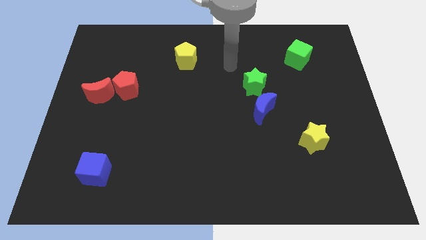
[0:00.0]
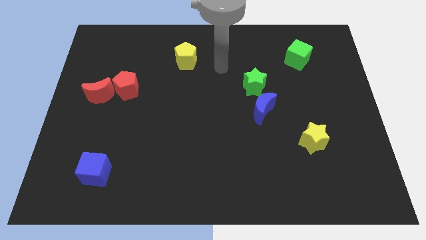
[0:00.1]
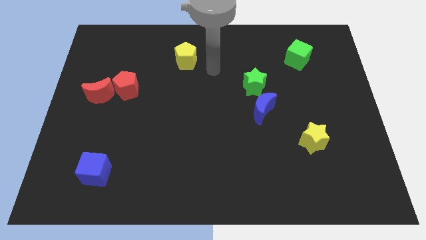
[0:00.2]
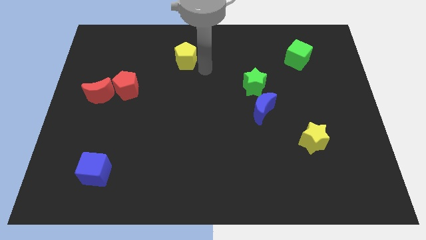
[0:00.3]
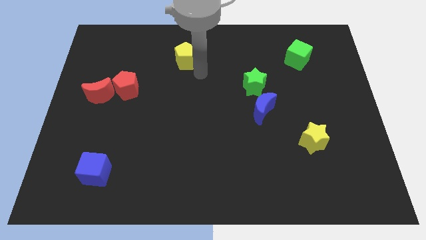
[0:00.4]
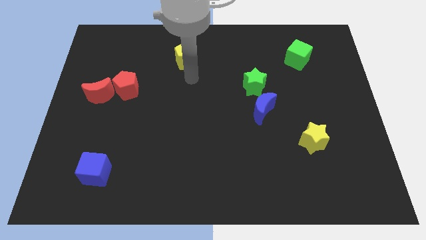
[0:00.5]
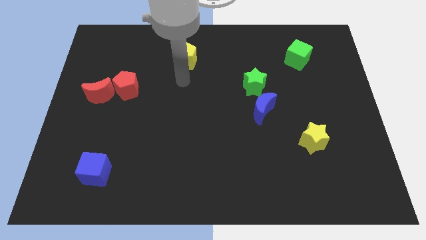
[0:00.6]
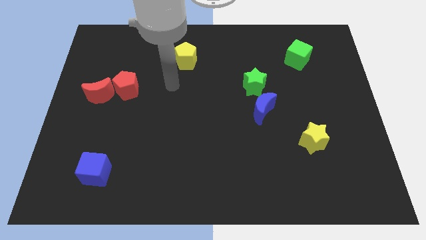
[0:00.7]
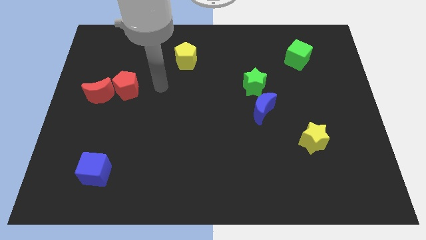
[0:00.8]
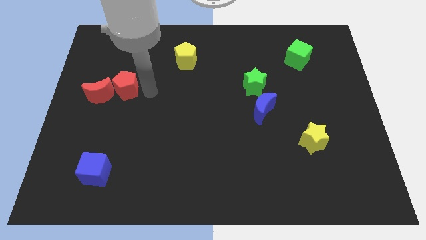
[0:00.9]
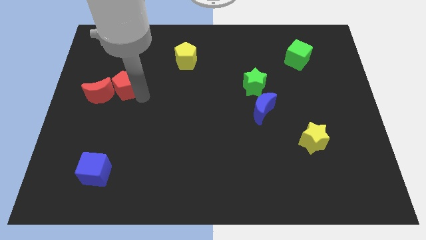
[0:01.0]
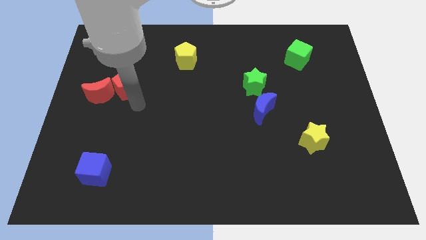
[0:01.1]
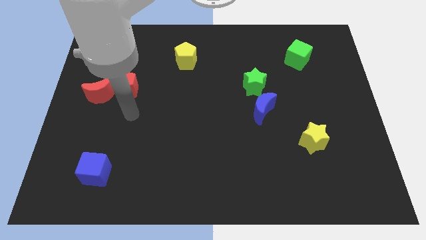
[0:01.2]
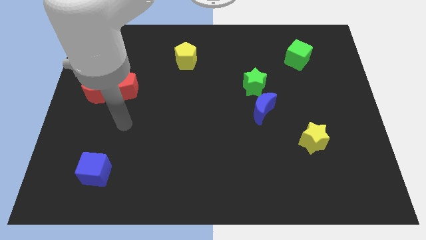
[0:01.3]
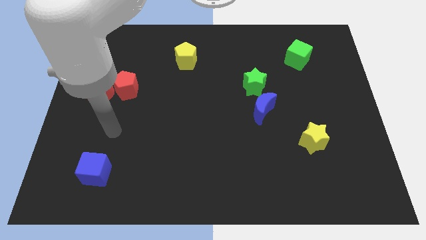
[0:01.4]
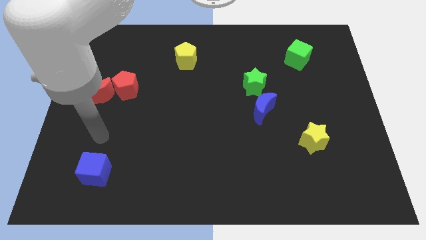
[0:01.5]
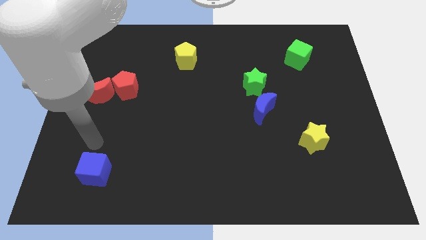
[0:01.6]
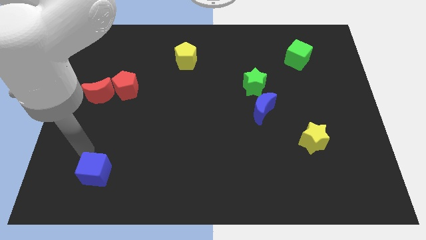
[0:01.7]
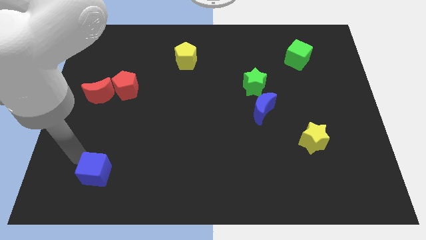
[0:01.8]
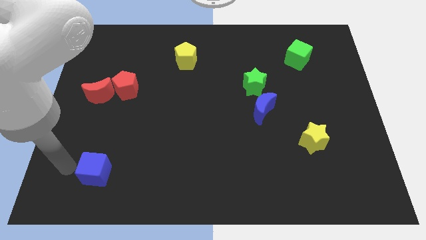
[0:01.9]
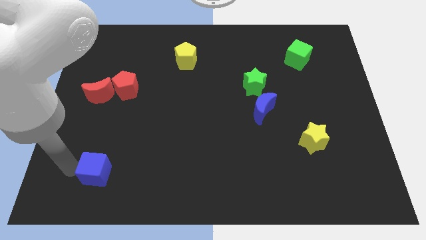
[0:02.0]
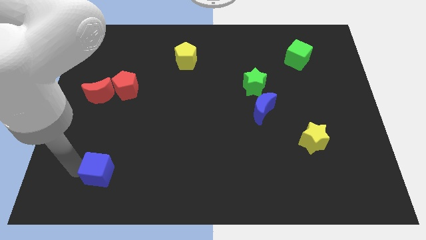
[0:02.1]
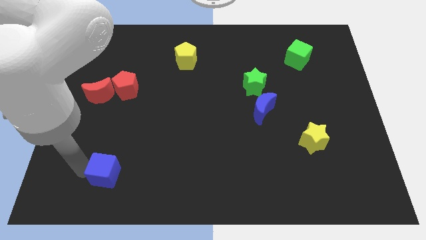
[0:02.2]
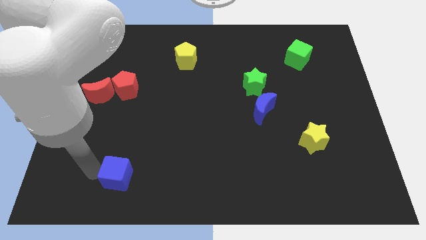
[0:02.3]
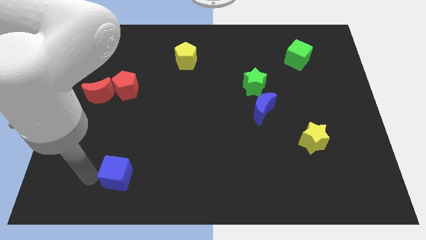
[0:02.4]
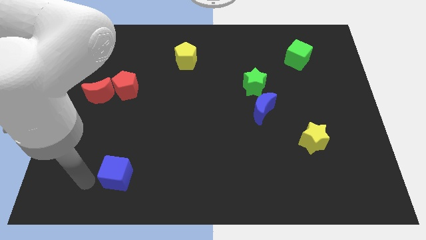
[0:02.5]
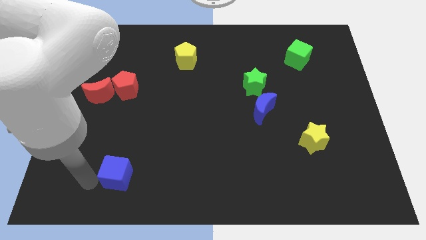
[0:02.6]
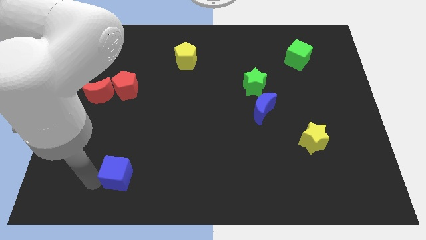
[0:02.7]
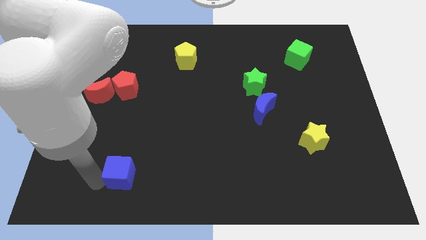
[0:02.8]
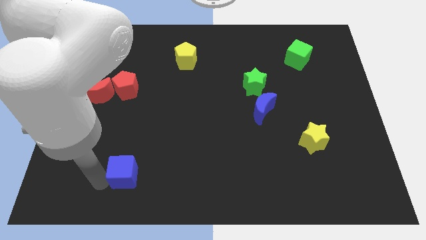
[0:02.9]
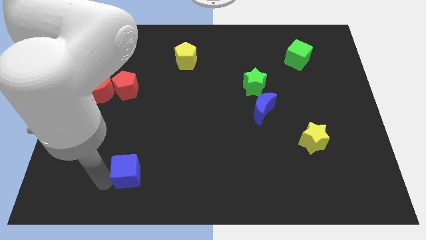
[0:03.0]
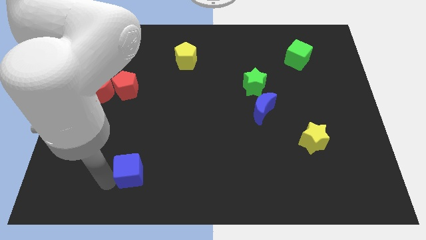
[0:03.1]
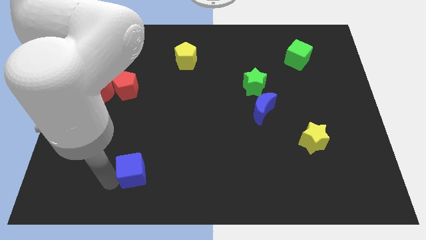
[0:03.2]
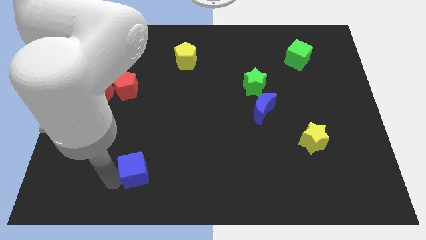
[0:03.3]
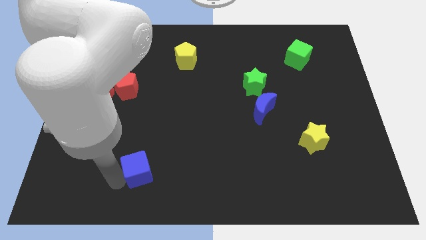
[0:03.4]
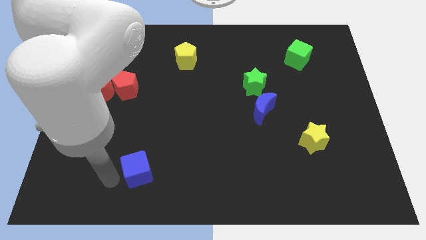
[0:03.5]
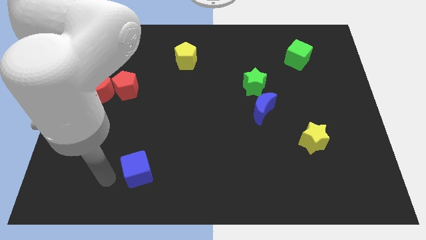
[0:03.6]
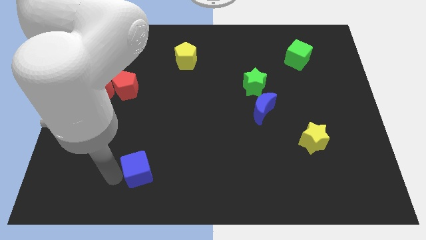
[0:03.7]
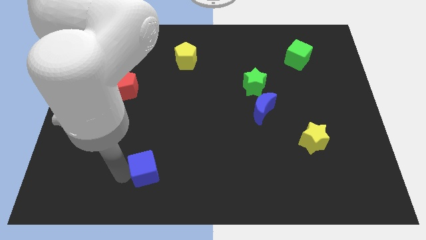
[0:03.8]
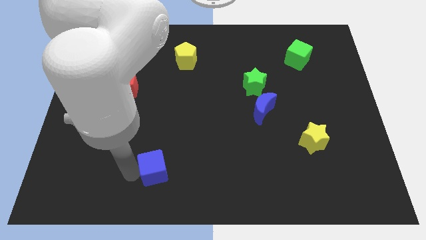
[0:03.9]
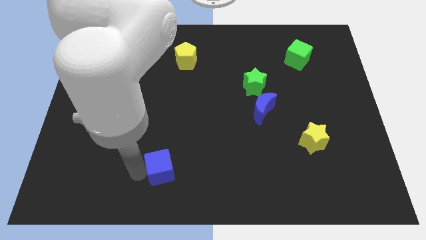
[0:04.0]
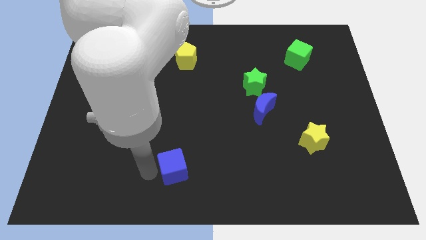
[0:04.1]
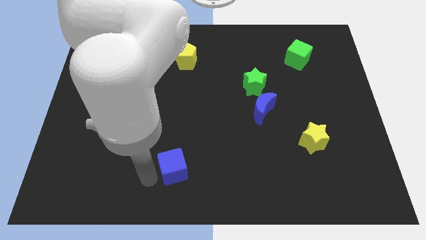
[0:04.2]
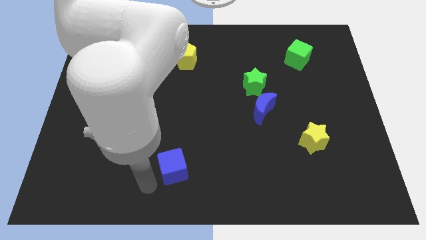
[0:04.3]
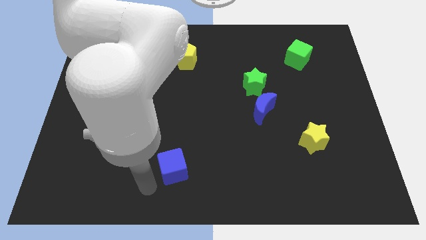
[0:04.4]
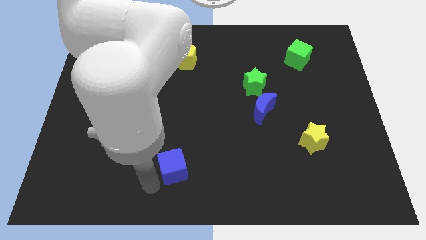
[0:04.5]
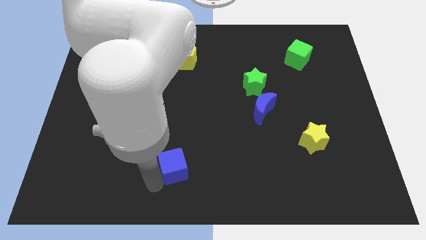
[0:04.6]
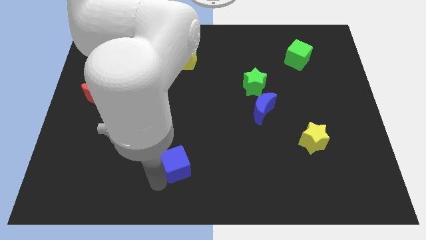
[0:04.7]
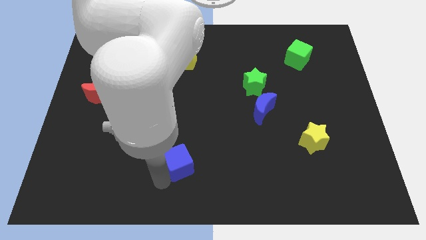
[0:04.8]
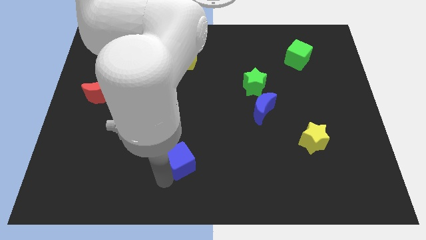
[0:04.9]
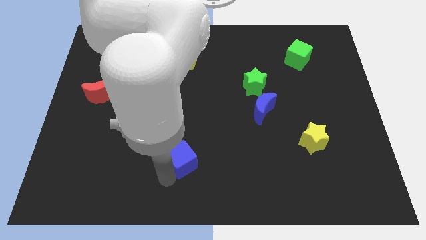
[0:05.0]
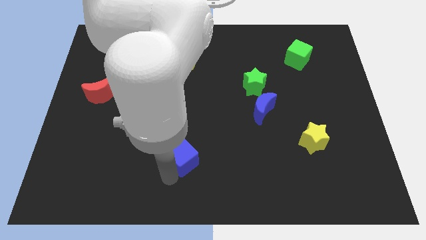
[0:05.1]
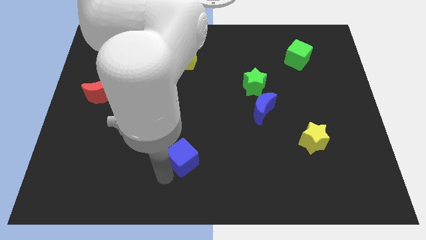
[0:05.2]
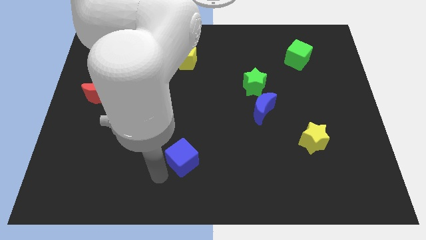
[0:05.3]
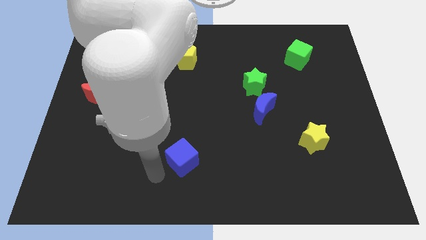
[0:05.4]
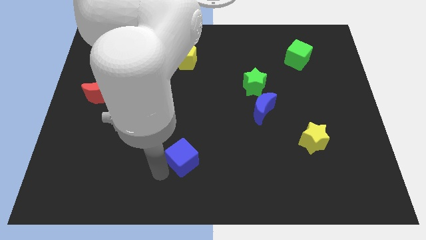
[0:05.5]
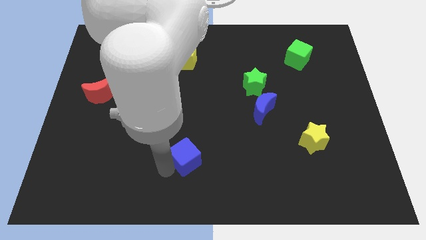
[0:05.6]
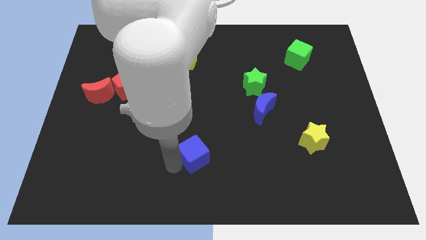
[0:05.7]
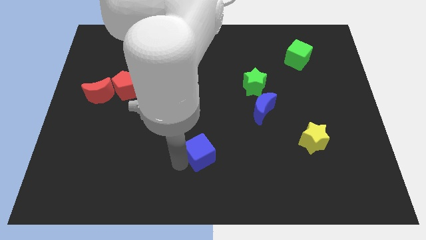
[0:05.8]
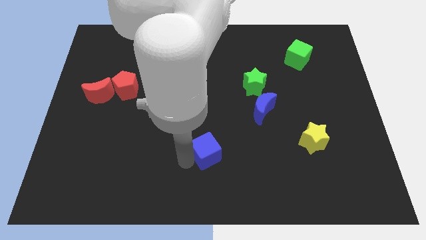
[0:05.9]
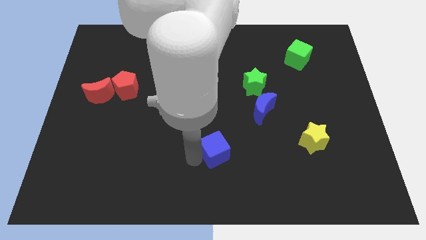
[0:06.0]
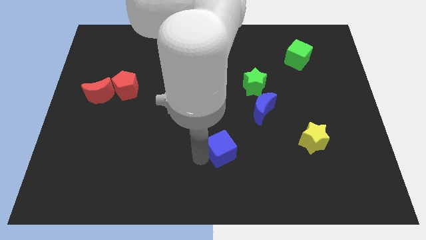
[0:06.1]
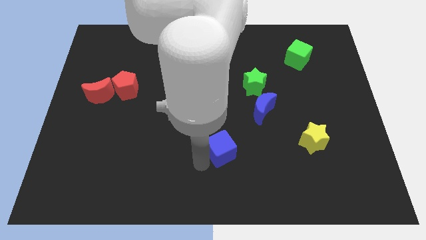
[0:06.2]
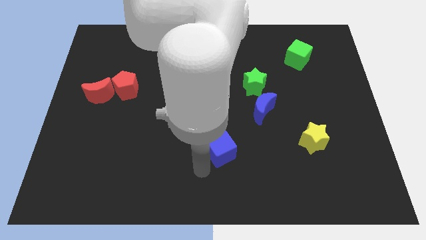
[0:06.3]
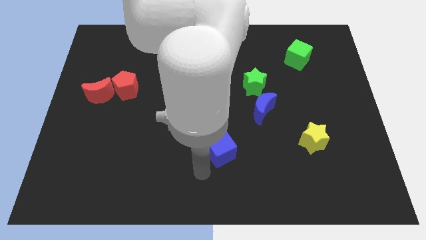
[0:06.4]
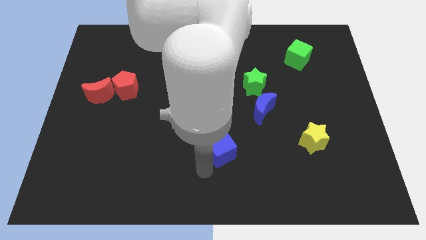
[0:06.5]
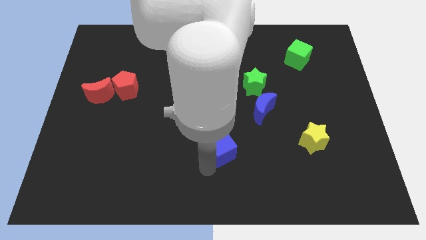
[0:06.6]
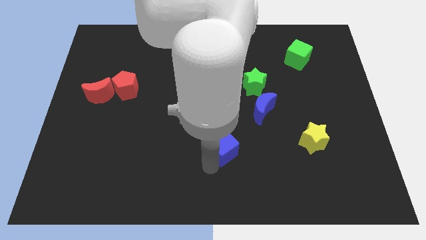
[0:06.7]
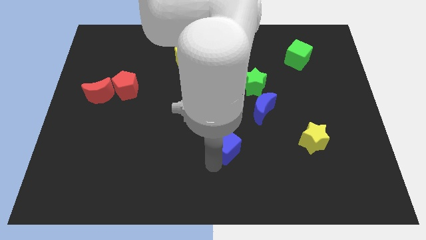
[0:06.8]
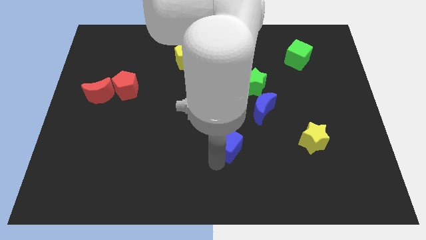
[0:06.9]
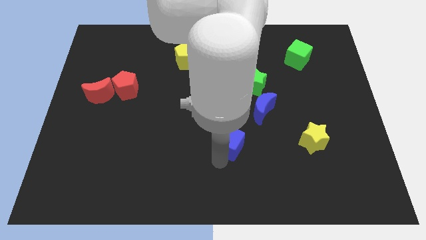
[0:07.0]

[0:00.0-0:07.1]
slide the blue cube to the bottom left side of the blue moon

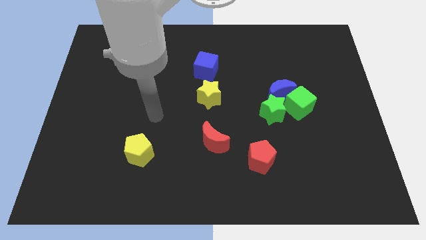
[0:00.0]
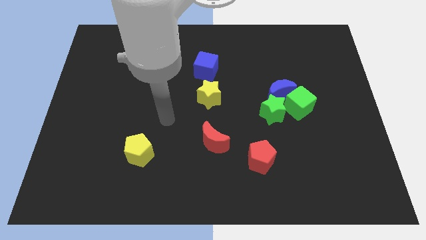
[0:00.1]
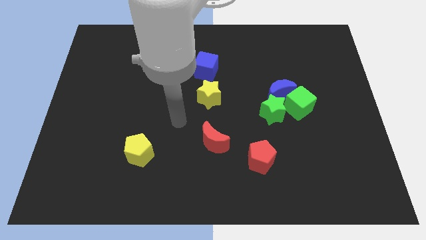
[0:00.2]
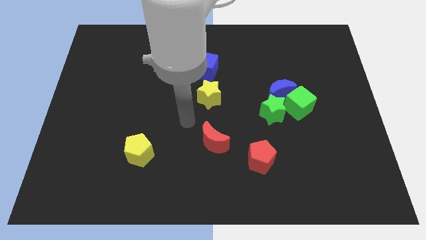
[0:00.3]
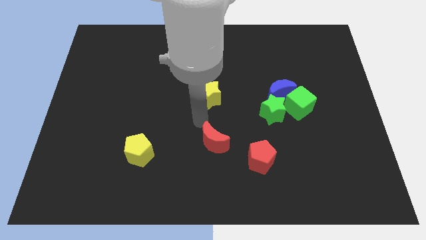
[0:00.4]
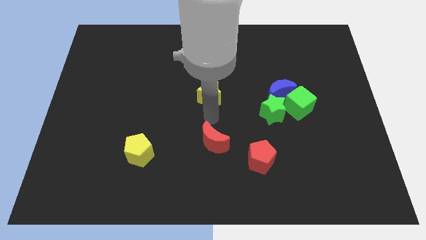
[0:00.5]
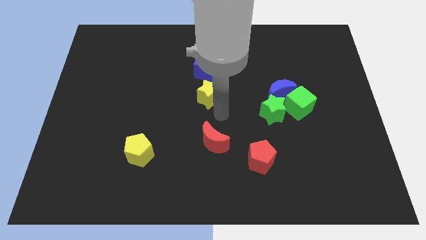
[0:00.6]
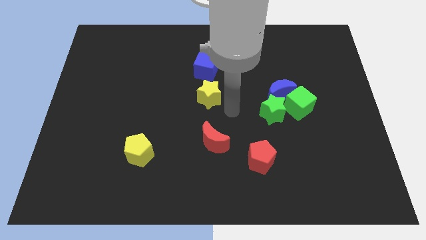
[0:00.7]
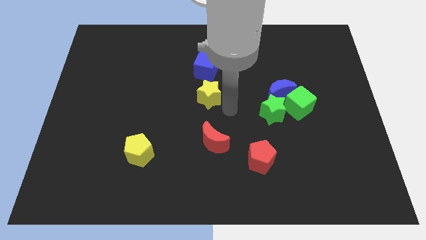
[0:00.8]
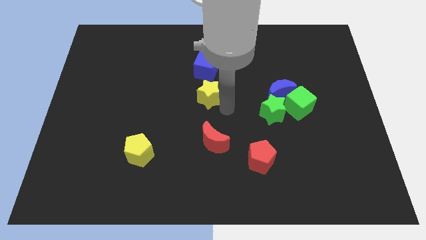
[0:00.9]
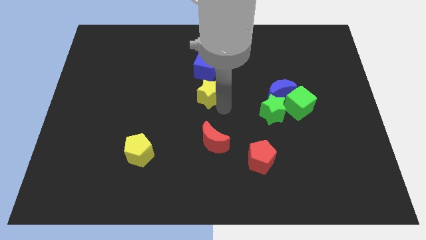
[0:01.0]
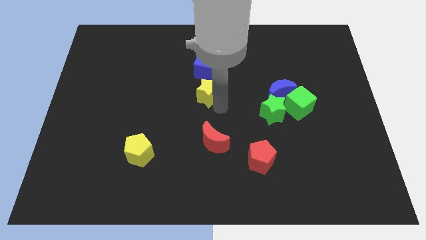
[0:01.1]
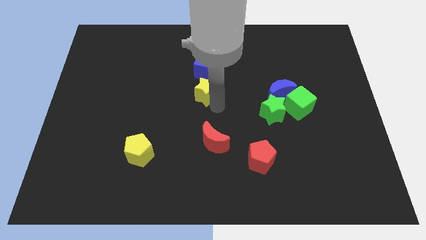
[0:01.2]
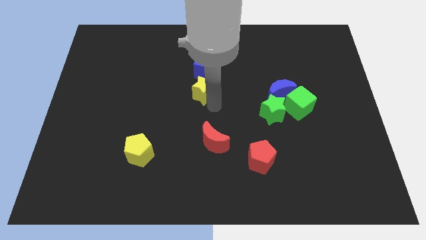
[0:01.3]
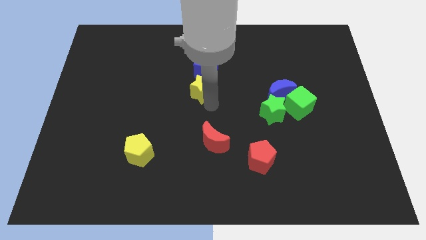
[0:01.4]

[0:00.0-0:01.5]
slide the yellow star to the bottom left side of the blue cube
